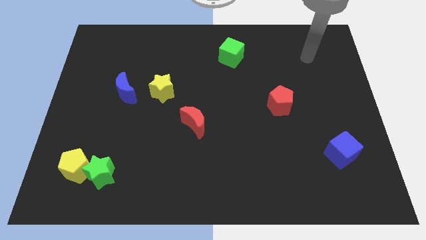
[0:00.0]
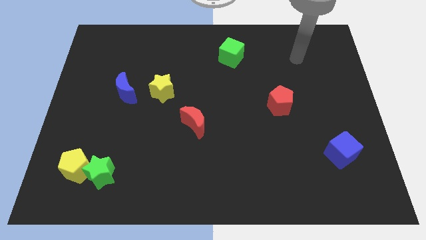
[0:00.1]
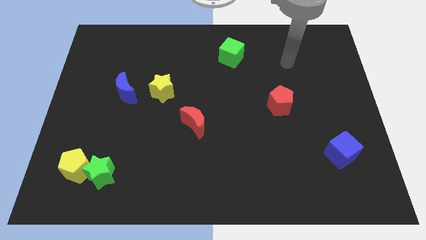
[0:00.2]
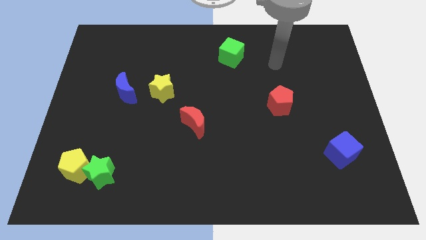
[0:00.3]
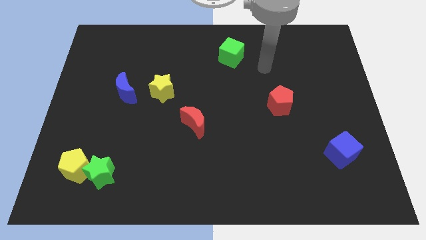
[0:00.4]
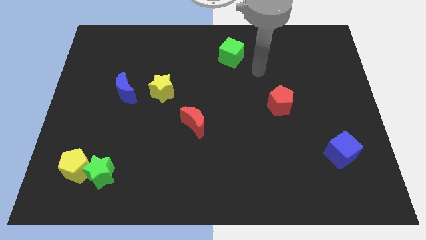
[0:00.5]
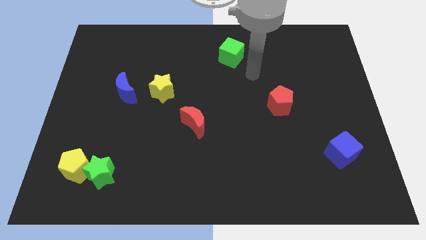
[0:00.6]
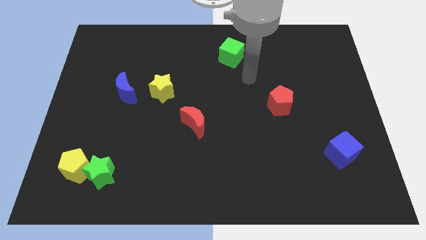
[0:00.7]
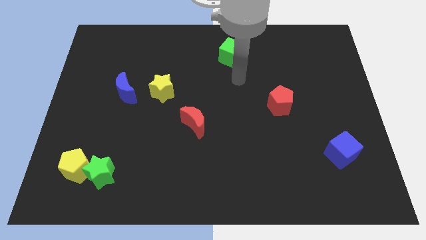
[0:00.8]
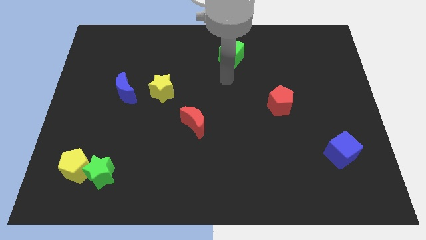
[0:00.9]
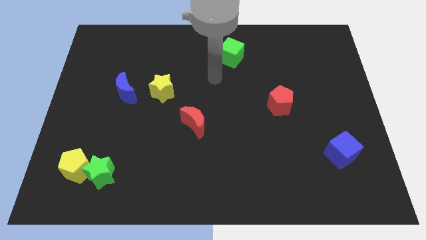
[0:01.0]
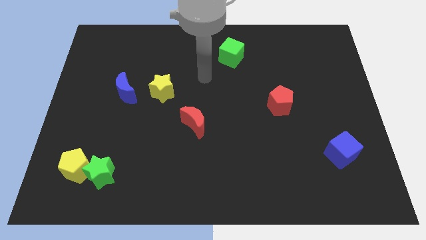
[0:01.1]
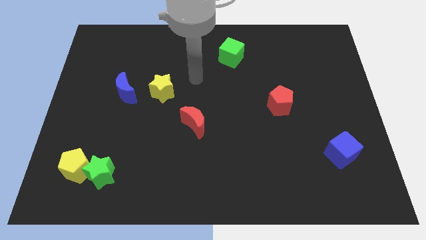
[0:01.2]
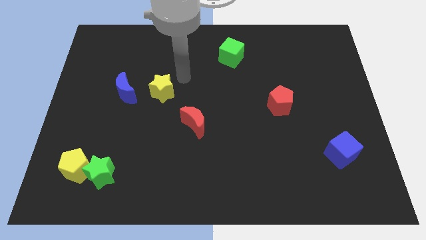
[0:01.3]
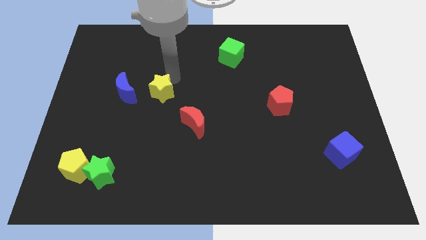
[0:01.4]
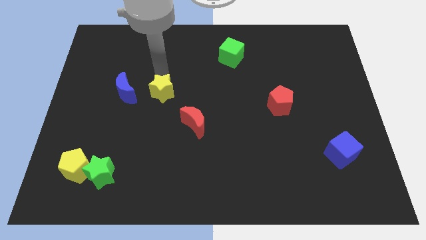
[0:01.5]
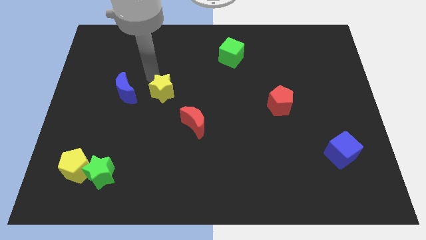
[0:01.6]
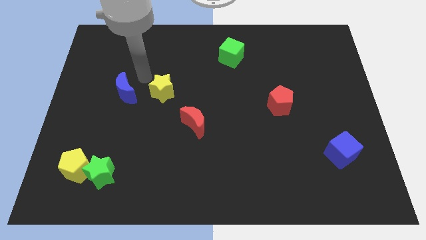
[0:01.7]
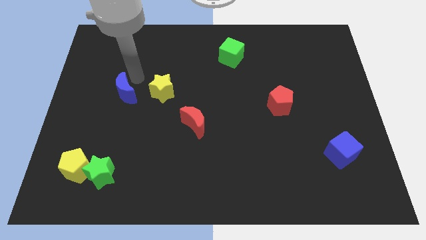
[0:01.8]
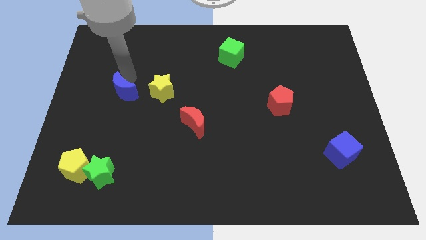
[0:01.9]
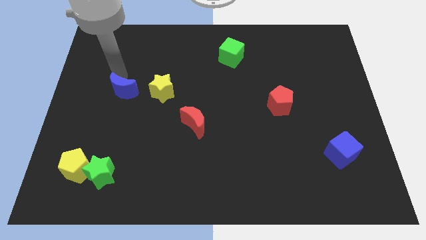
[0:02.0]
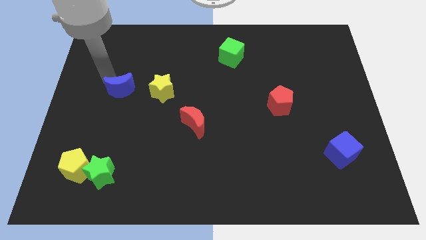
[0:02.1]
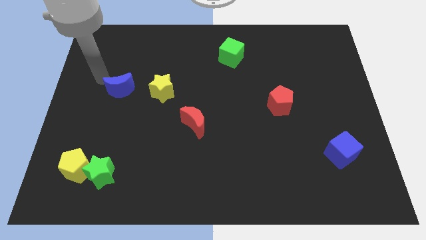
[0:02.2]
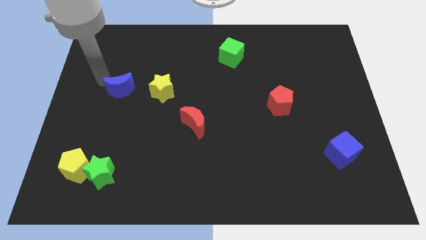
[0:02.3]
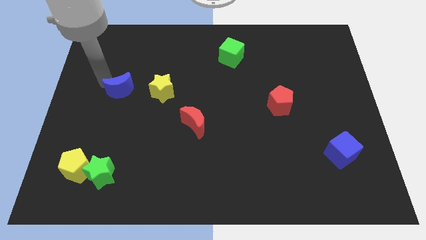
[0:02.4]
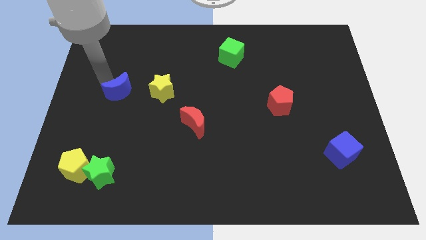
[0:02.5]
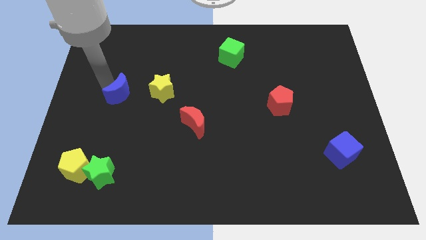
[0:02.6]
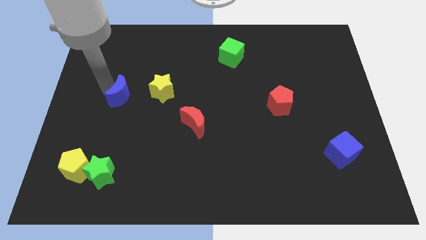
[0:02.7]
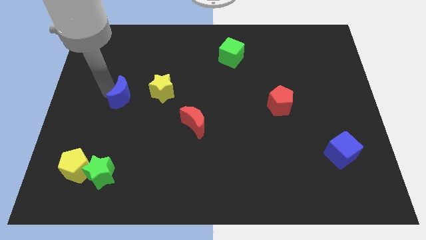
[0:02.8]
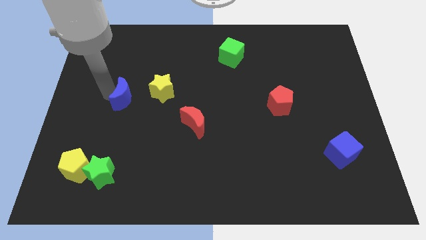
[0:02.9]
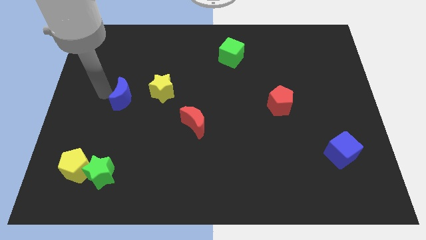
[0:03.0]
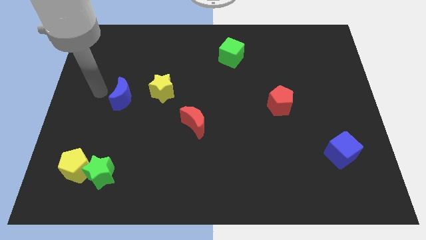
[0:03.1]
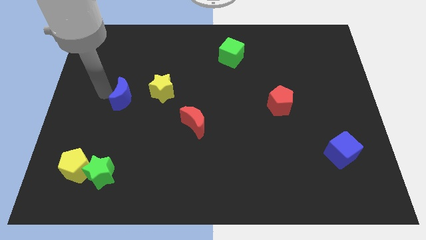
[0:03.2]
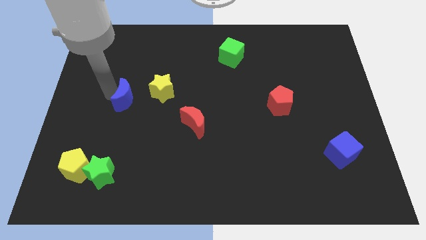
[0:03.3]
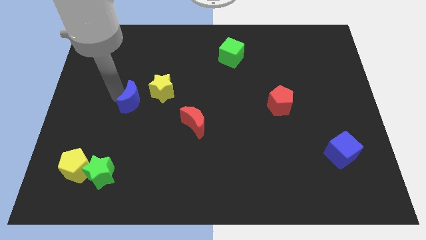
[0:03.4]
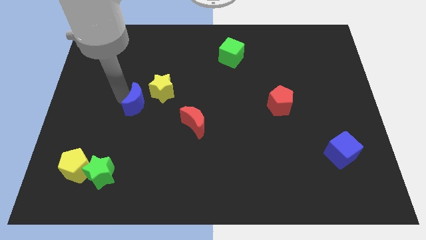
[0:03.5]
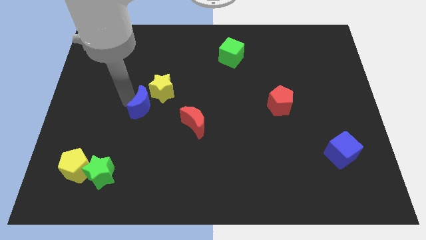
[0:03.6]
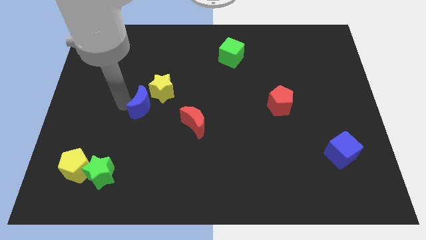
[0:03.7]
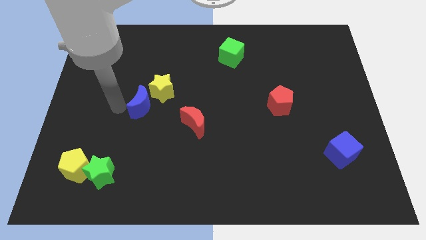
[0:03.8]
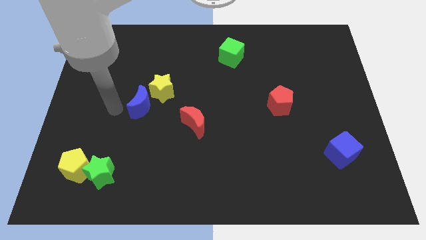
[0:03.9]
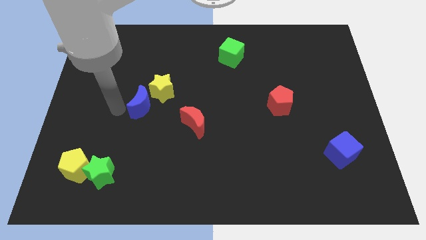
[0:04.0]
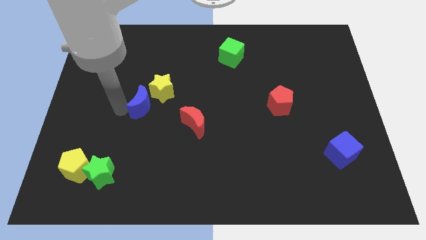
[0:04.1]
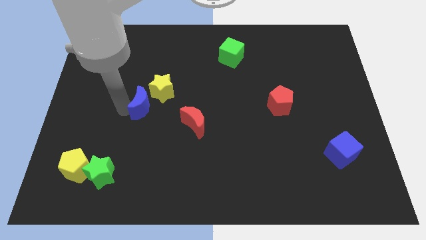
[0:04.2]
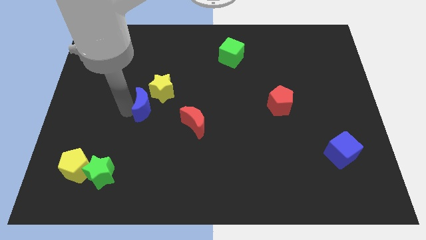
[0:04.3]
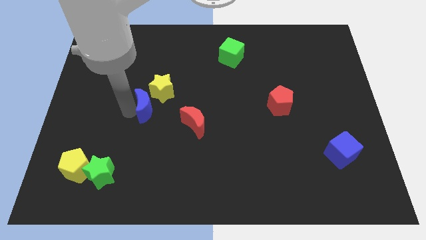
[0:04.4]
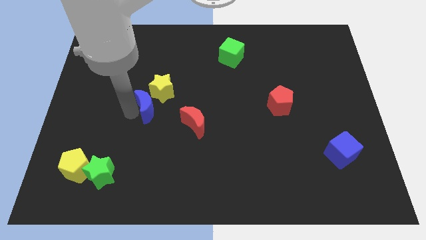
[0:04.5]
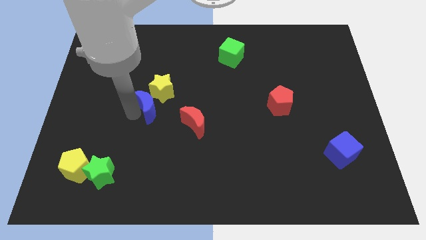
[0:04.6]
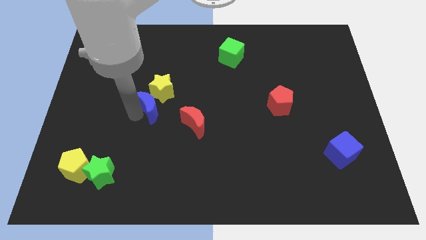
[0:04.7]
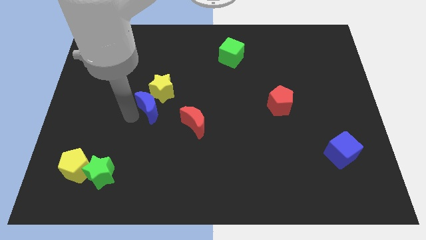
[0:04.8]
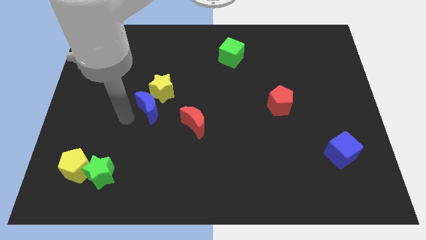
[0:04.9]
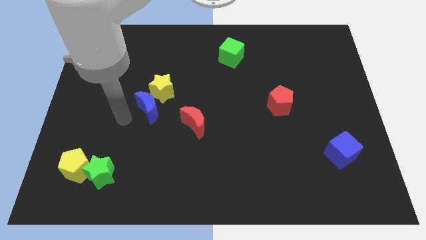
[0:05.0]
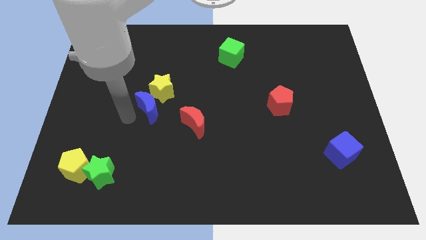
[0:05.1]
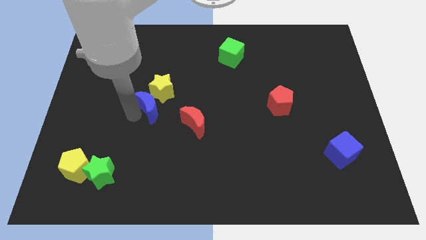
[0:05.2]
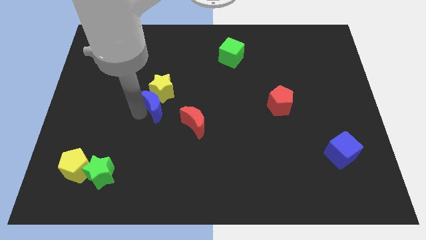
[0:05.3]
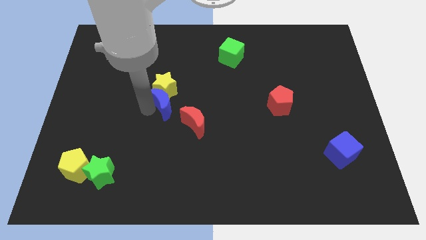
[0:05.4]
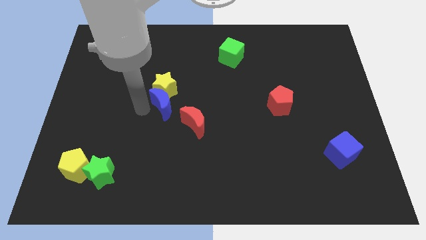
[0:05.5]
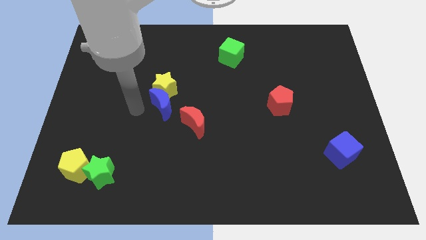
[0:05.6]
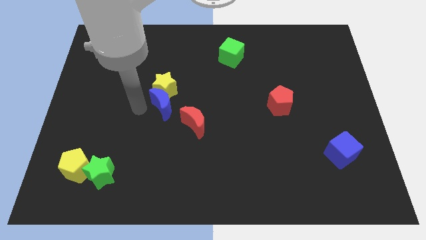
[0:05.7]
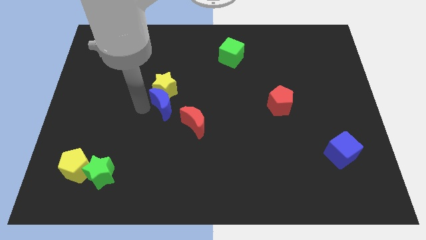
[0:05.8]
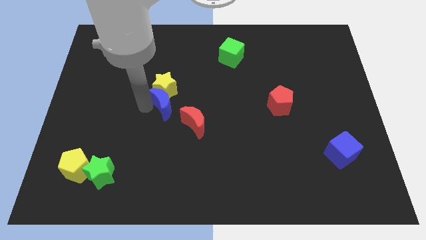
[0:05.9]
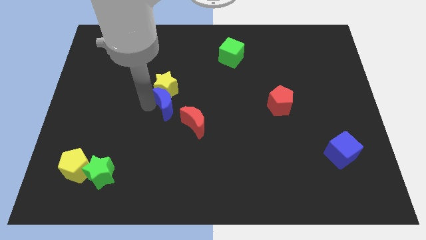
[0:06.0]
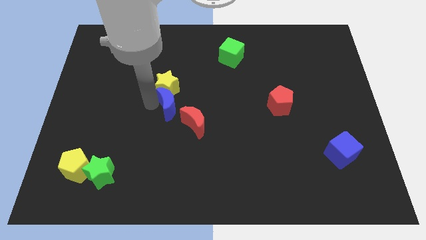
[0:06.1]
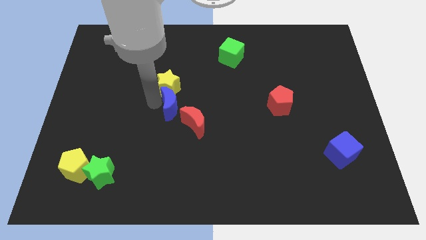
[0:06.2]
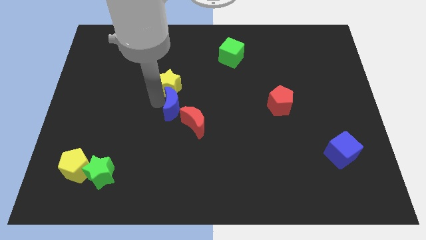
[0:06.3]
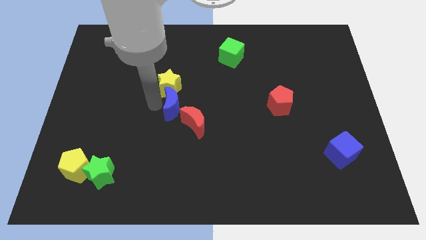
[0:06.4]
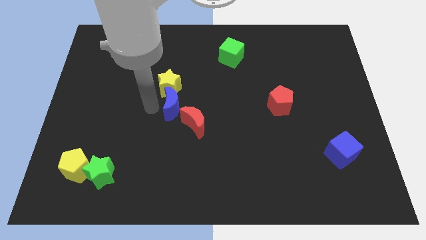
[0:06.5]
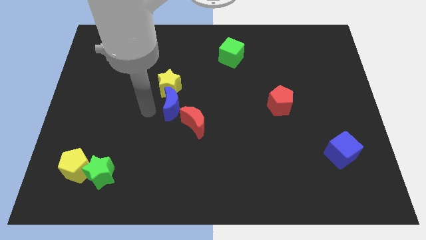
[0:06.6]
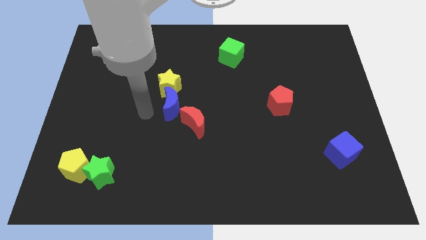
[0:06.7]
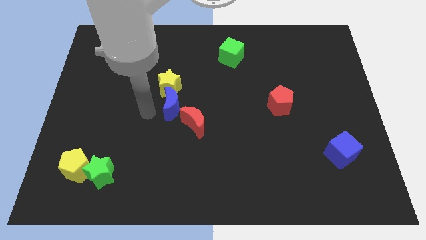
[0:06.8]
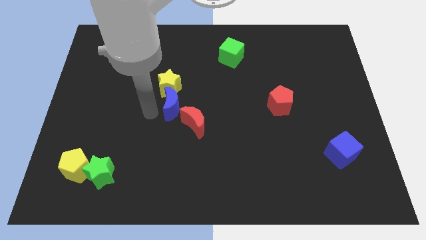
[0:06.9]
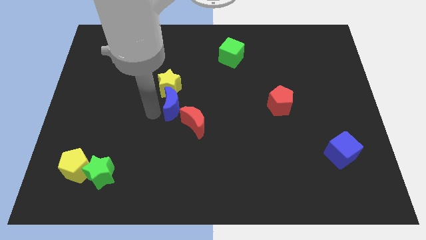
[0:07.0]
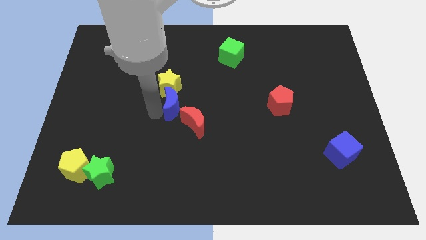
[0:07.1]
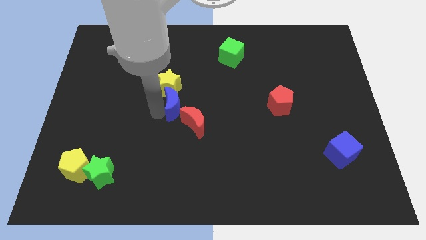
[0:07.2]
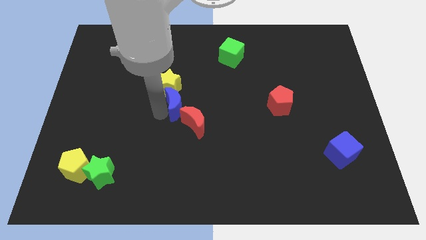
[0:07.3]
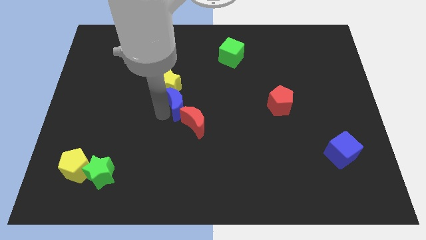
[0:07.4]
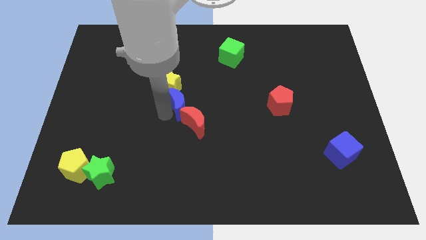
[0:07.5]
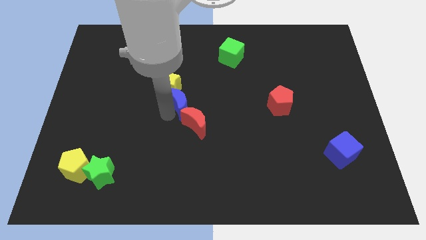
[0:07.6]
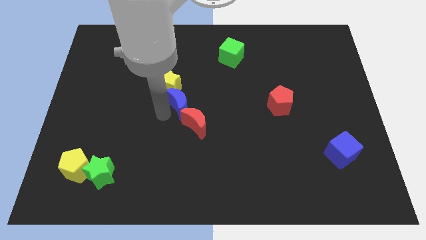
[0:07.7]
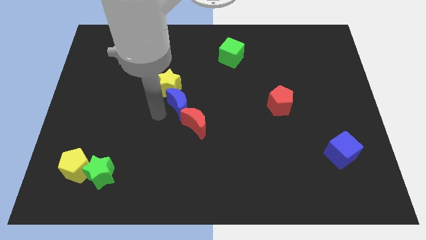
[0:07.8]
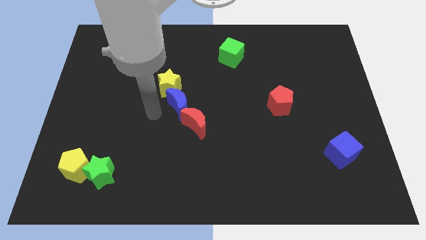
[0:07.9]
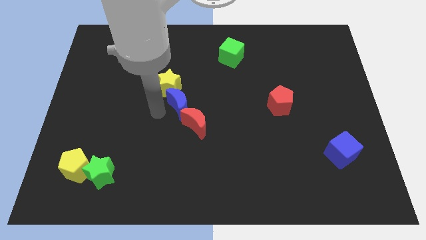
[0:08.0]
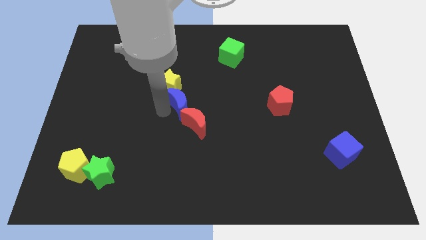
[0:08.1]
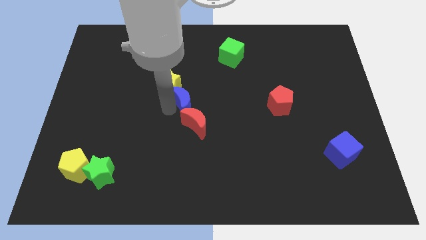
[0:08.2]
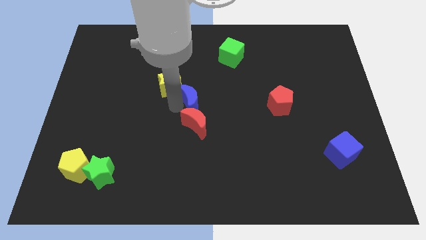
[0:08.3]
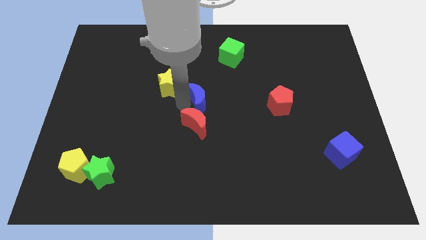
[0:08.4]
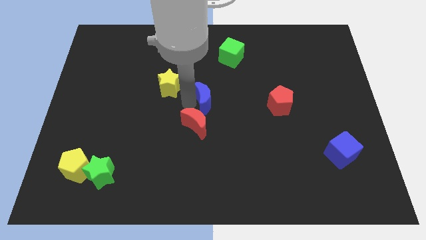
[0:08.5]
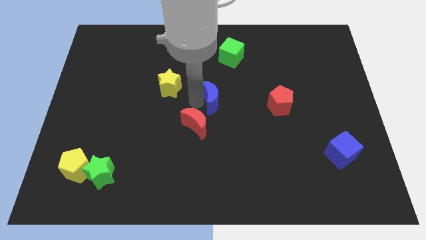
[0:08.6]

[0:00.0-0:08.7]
push the blue moon right
